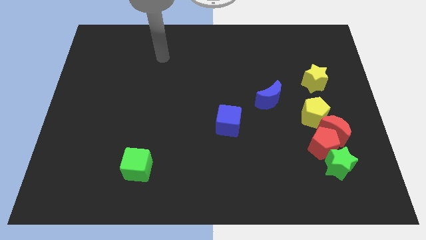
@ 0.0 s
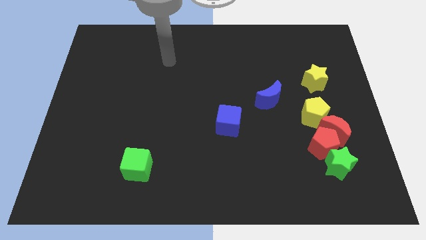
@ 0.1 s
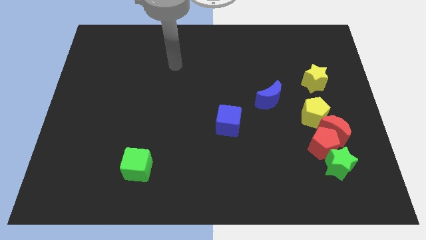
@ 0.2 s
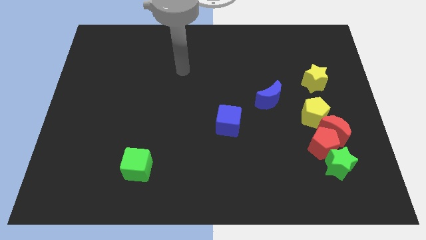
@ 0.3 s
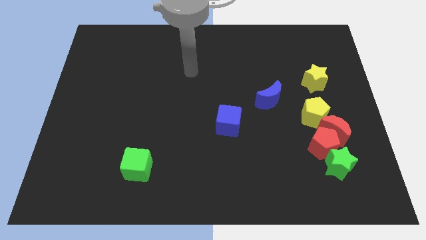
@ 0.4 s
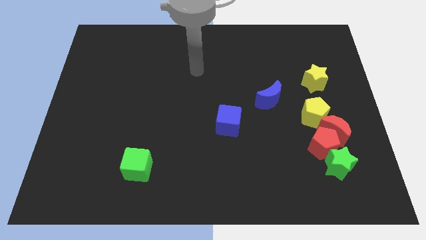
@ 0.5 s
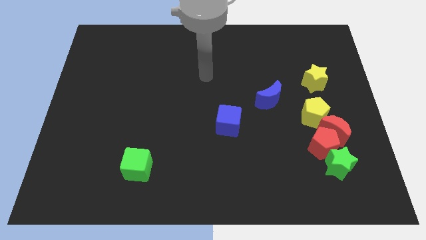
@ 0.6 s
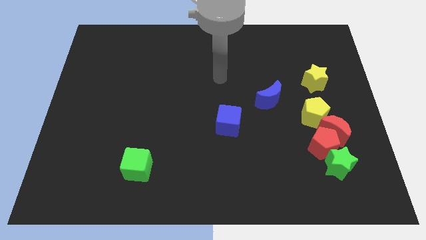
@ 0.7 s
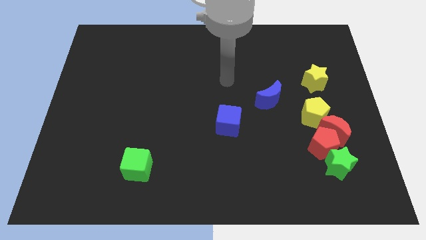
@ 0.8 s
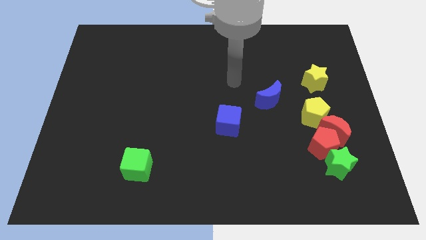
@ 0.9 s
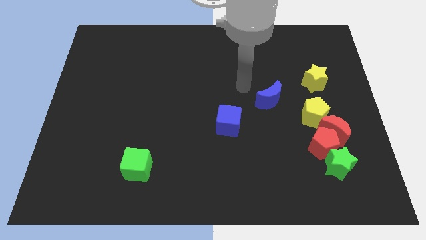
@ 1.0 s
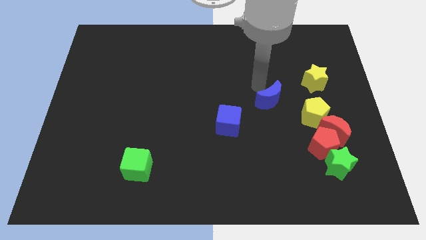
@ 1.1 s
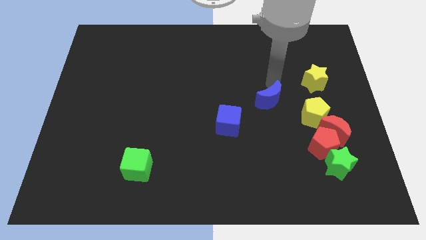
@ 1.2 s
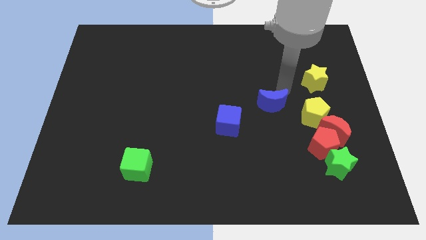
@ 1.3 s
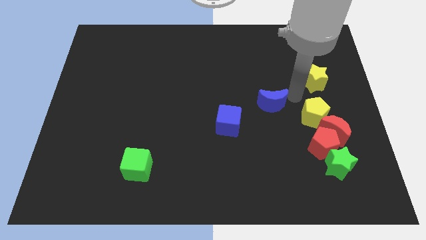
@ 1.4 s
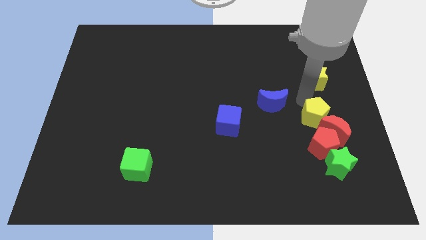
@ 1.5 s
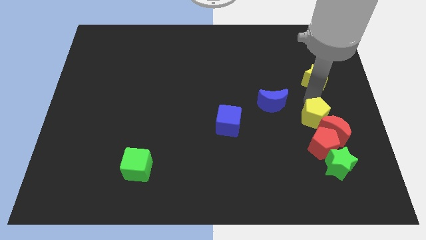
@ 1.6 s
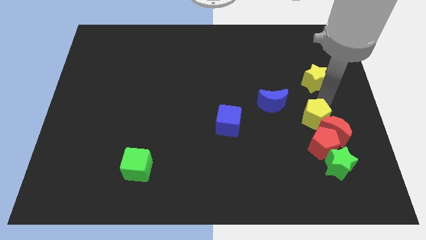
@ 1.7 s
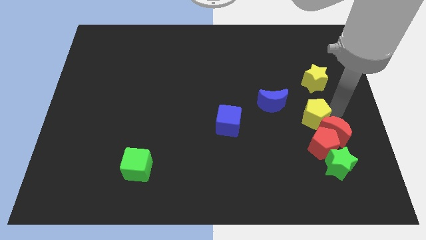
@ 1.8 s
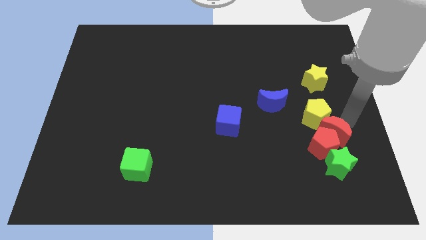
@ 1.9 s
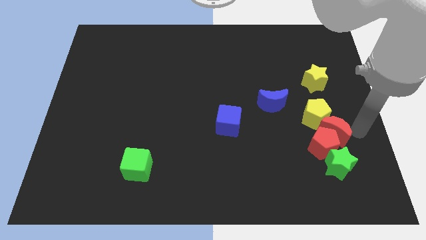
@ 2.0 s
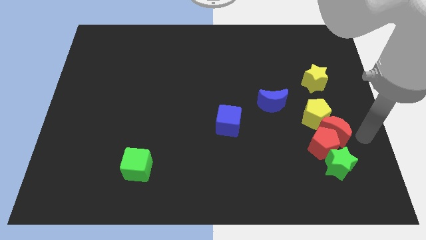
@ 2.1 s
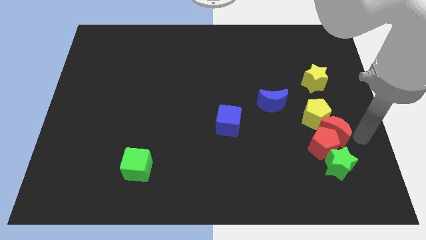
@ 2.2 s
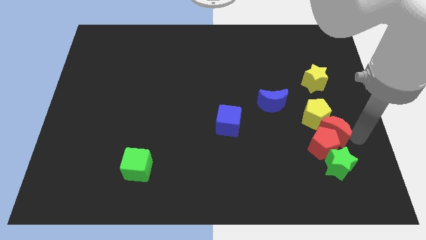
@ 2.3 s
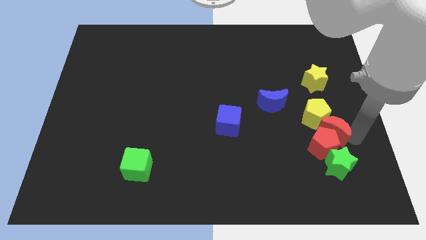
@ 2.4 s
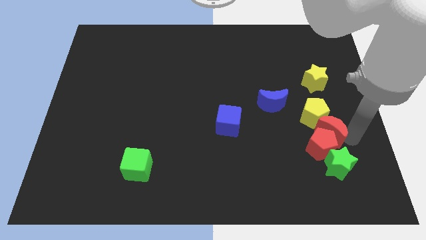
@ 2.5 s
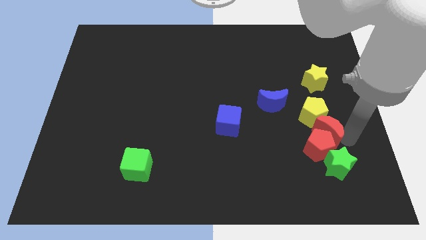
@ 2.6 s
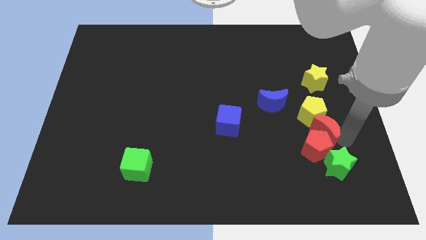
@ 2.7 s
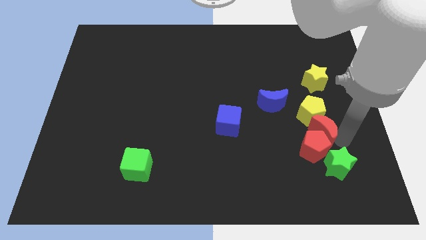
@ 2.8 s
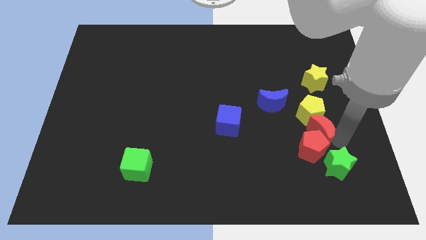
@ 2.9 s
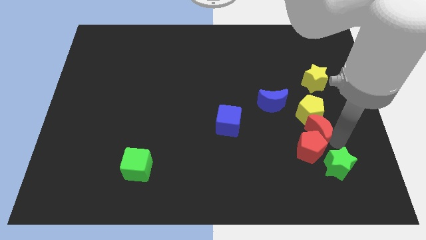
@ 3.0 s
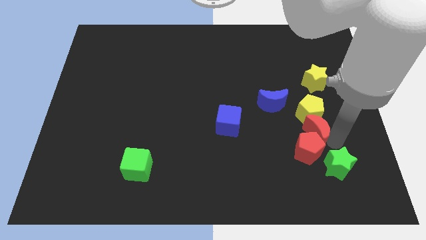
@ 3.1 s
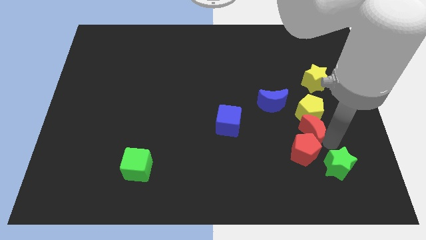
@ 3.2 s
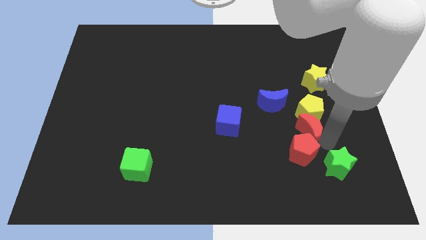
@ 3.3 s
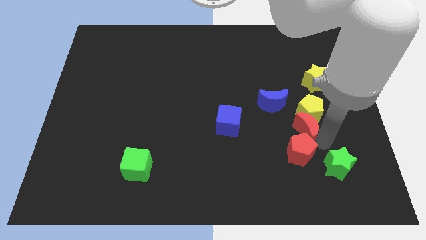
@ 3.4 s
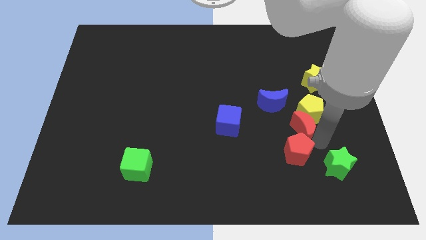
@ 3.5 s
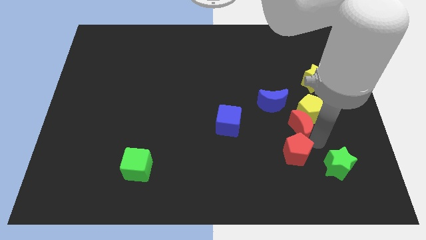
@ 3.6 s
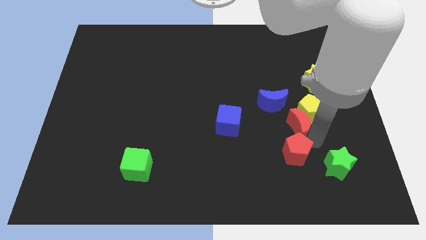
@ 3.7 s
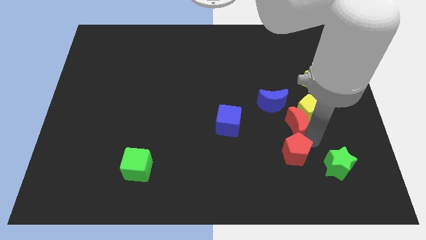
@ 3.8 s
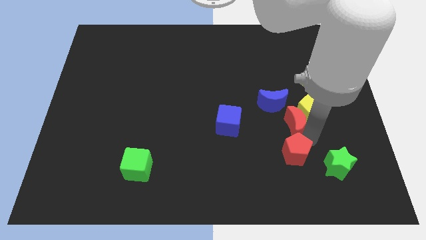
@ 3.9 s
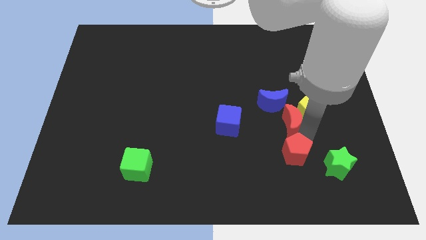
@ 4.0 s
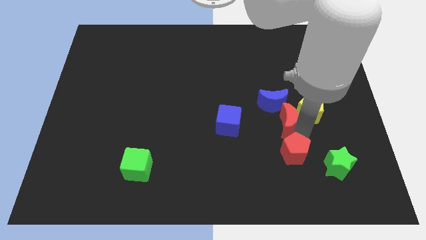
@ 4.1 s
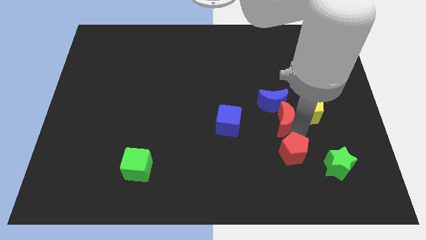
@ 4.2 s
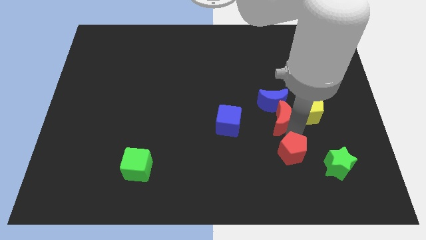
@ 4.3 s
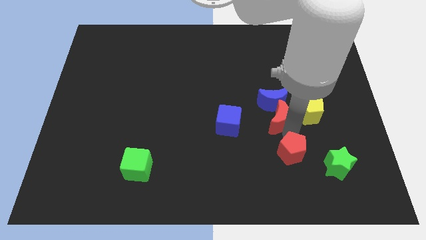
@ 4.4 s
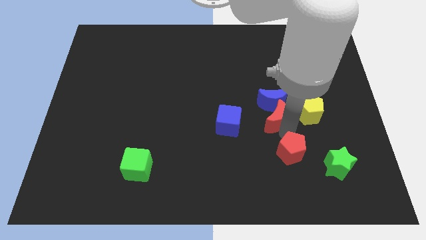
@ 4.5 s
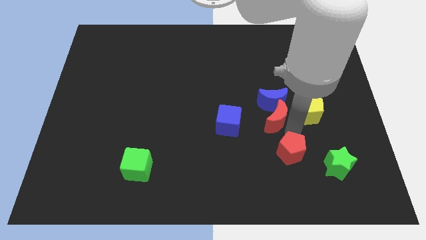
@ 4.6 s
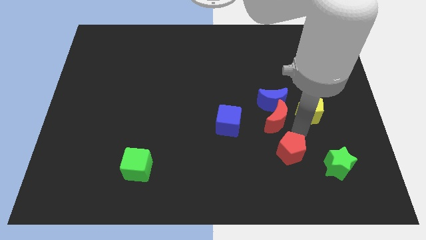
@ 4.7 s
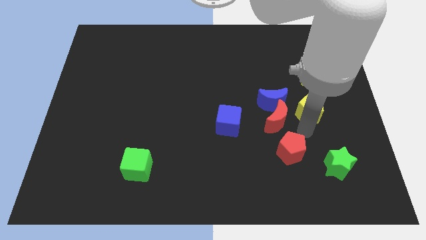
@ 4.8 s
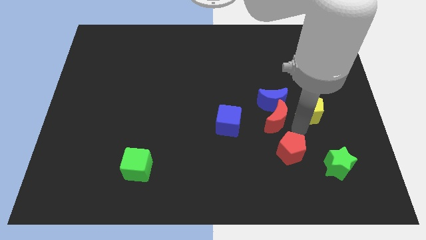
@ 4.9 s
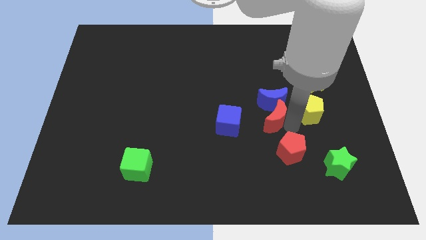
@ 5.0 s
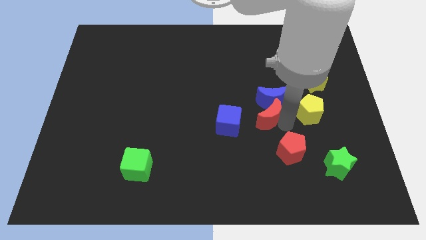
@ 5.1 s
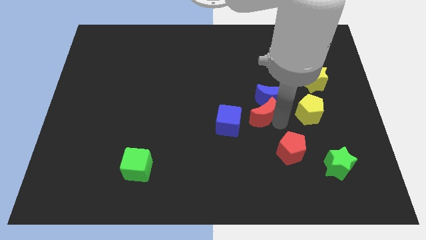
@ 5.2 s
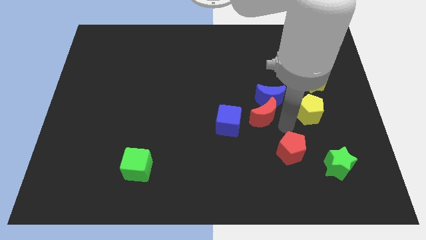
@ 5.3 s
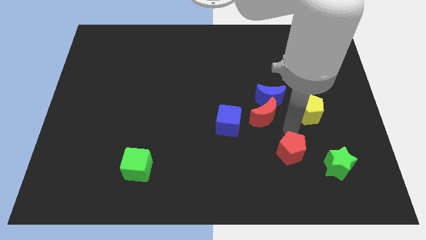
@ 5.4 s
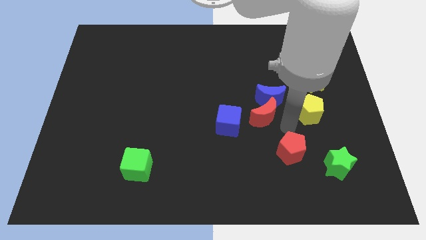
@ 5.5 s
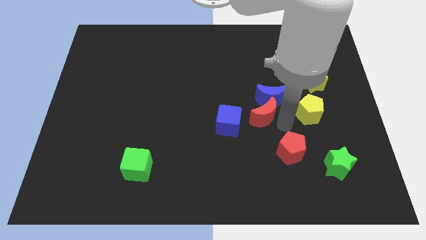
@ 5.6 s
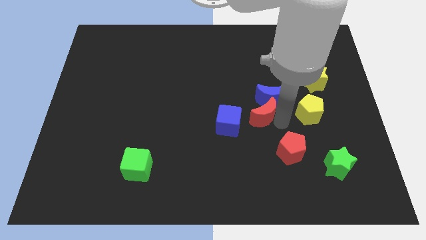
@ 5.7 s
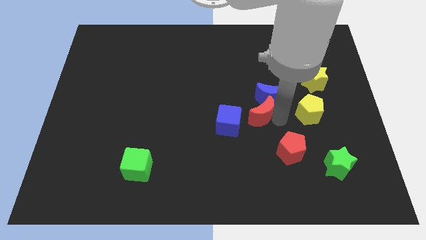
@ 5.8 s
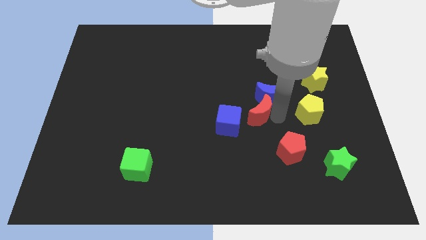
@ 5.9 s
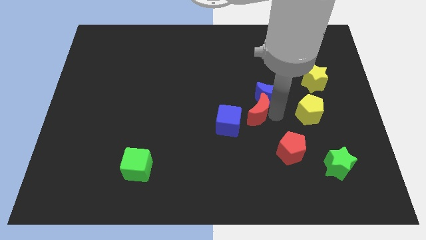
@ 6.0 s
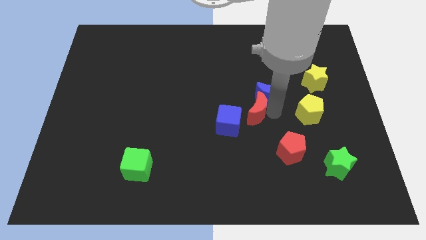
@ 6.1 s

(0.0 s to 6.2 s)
put the red moon left of the blue moon
